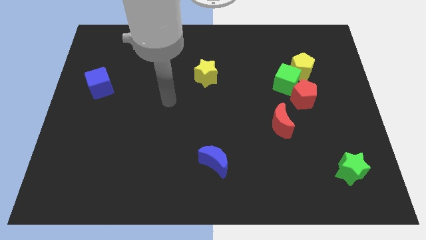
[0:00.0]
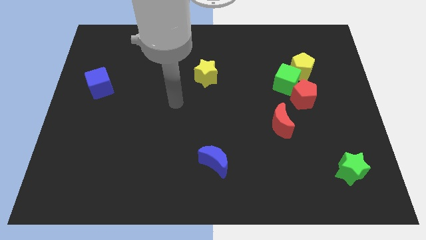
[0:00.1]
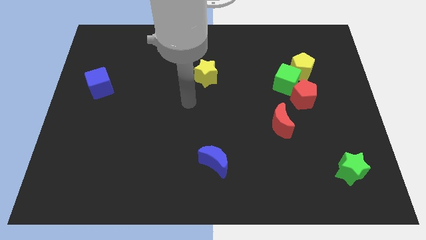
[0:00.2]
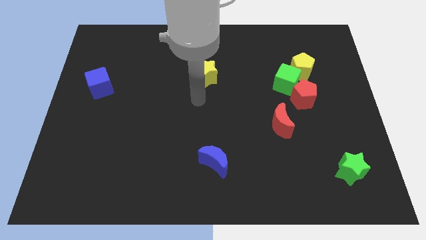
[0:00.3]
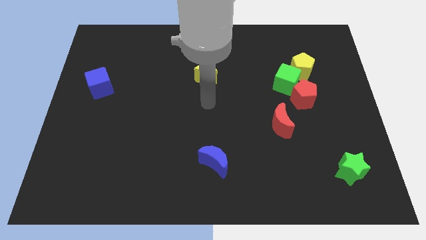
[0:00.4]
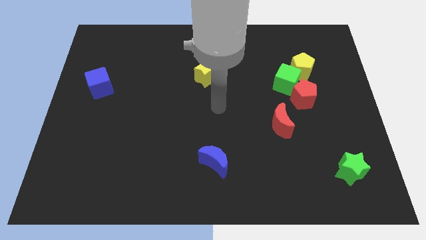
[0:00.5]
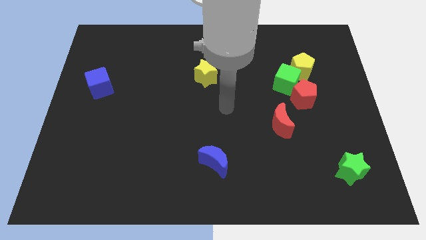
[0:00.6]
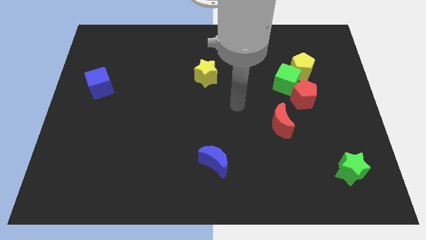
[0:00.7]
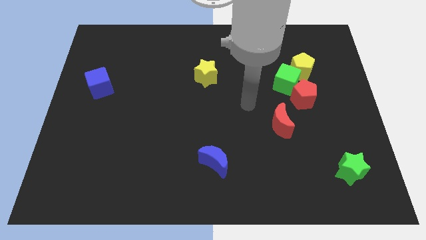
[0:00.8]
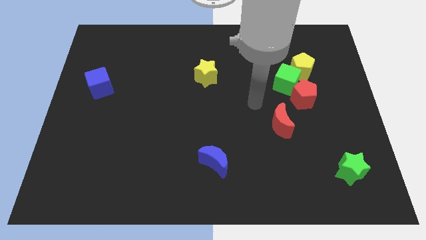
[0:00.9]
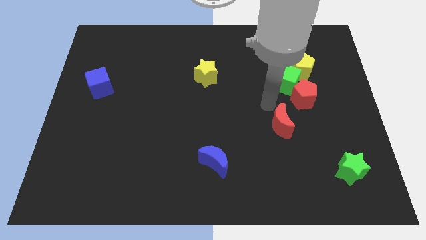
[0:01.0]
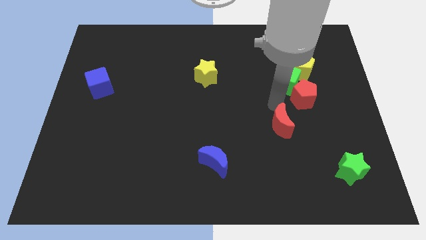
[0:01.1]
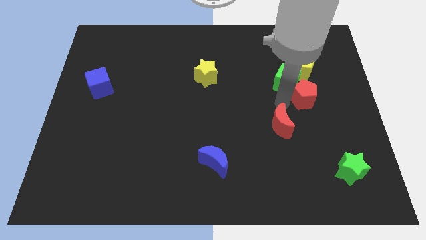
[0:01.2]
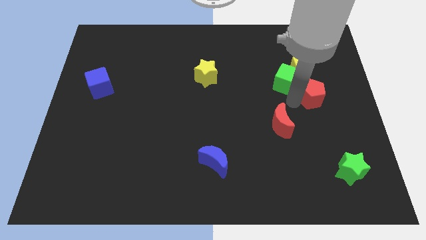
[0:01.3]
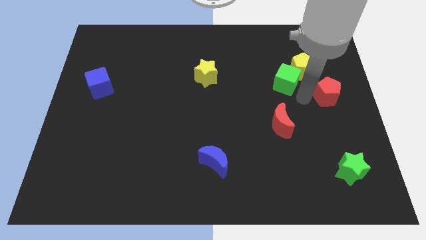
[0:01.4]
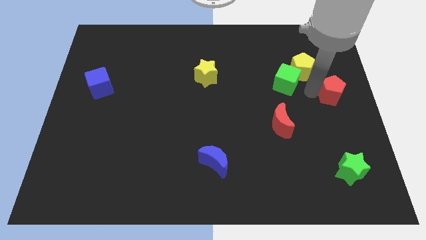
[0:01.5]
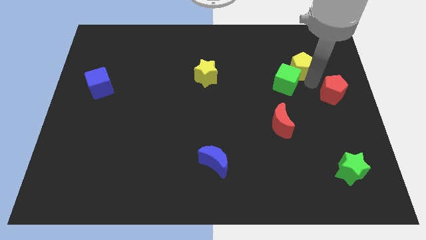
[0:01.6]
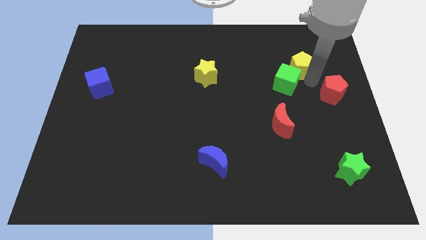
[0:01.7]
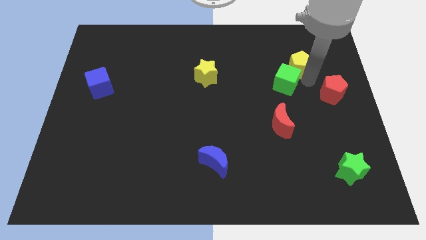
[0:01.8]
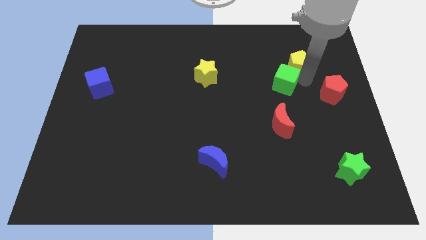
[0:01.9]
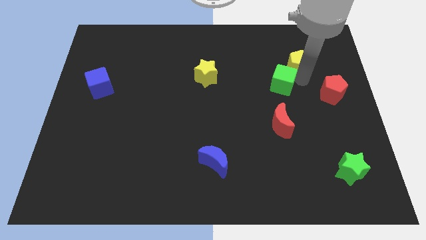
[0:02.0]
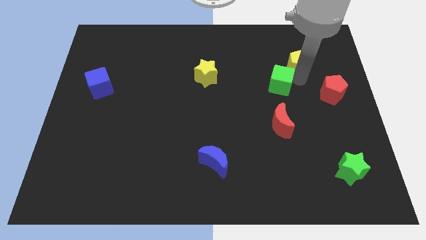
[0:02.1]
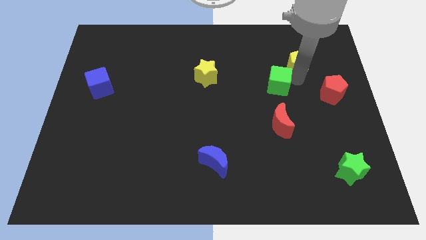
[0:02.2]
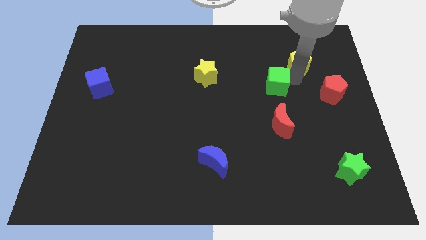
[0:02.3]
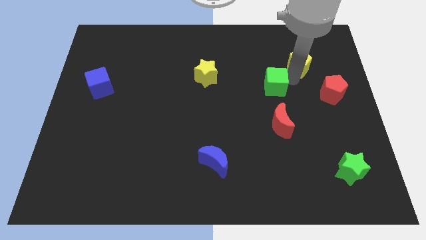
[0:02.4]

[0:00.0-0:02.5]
separate the green cube from the red pentagon and yellow pentagon

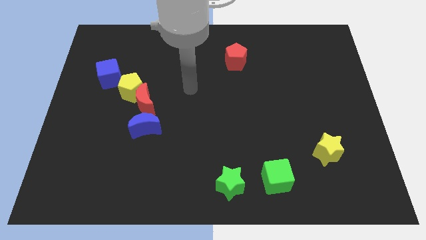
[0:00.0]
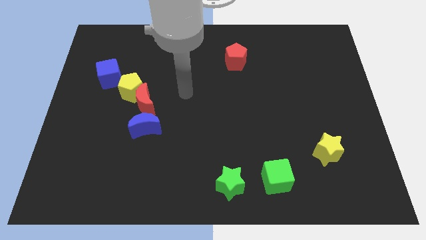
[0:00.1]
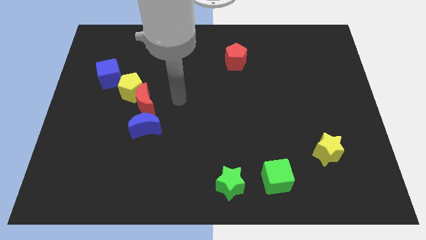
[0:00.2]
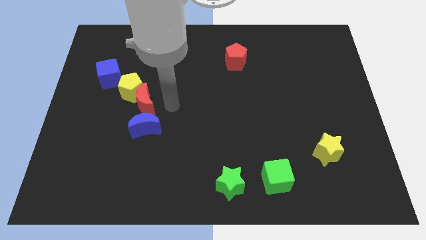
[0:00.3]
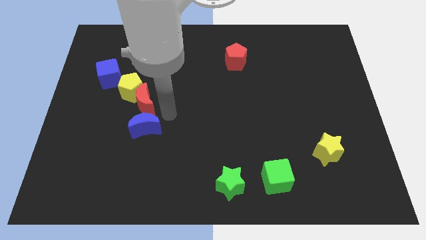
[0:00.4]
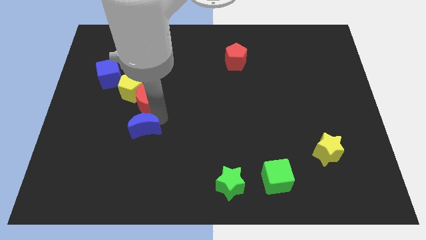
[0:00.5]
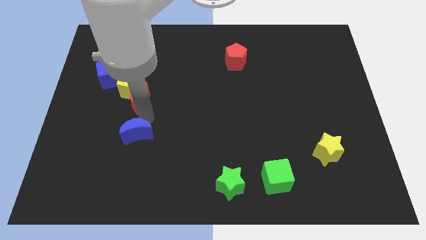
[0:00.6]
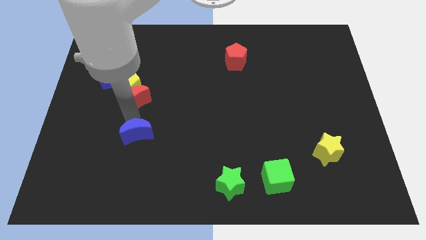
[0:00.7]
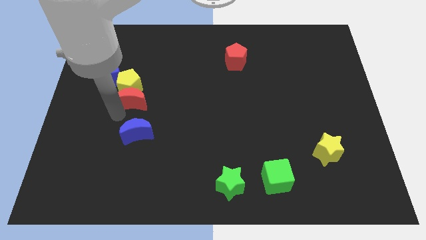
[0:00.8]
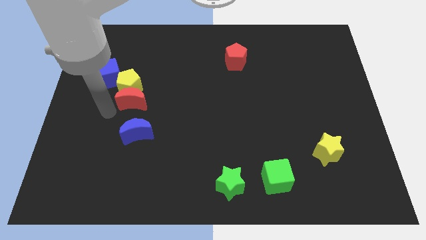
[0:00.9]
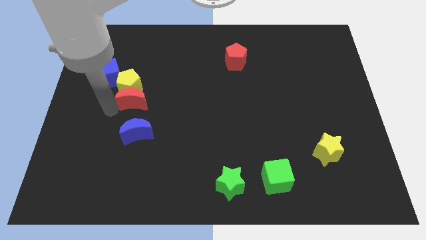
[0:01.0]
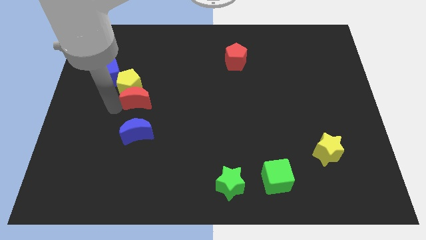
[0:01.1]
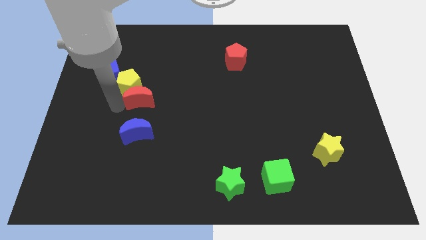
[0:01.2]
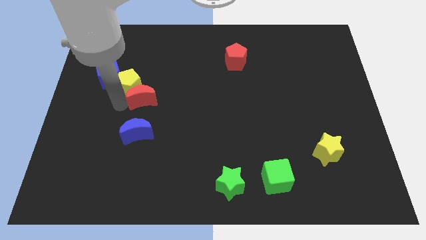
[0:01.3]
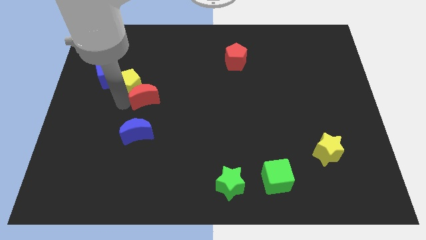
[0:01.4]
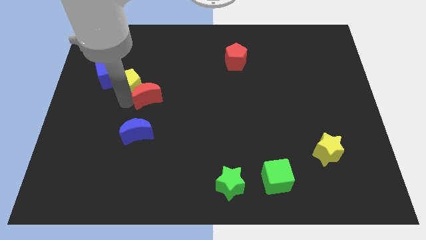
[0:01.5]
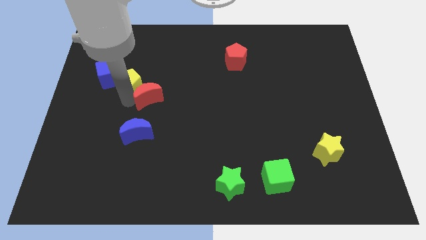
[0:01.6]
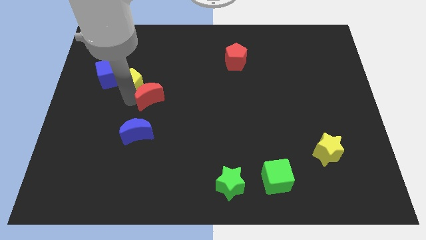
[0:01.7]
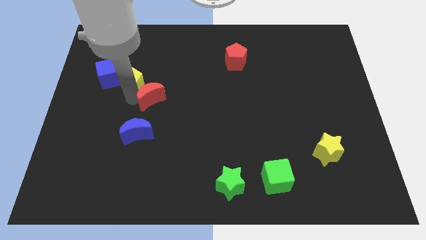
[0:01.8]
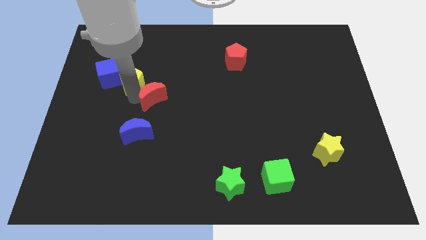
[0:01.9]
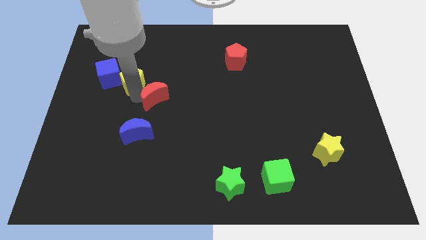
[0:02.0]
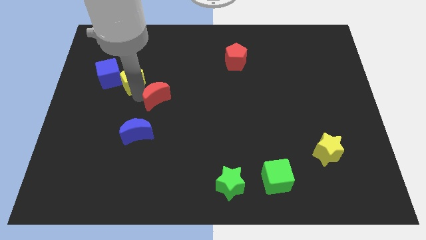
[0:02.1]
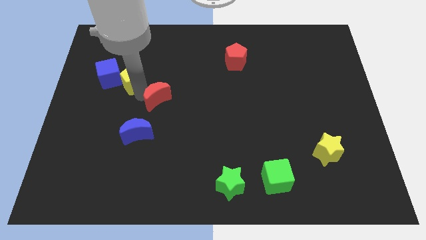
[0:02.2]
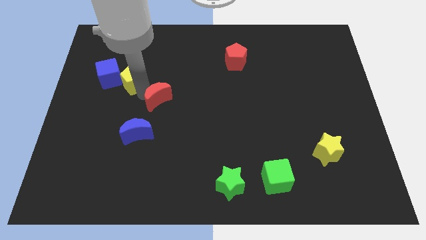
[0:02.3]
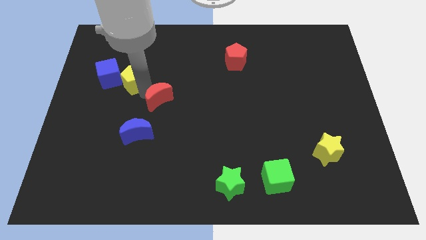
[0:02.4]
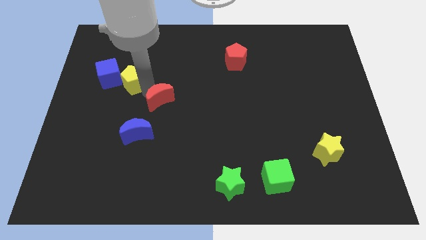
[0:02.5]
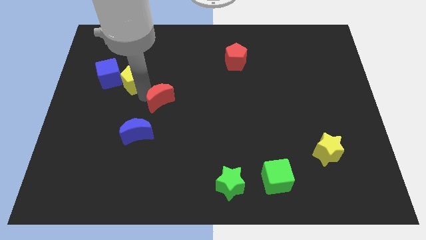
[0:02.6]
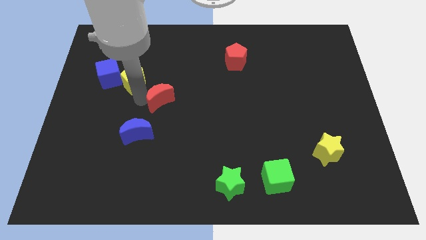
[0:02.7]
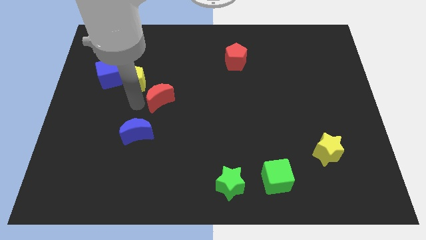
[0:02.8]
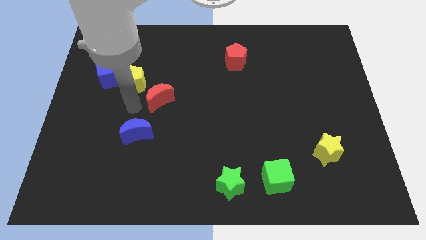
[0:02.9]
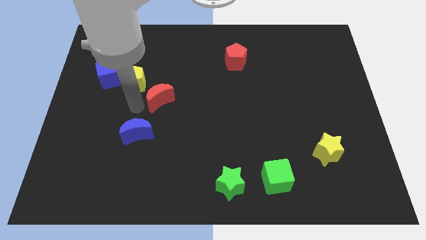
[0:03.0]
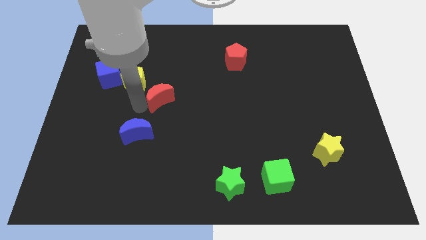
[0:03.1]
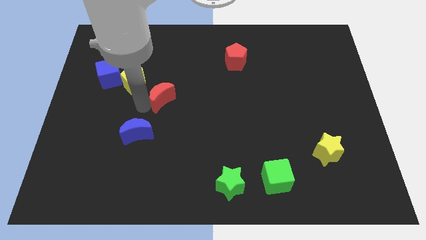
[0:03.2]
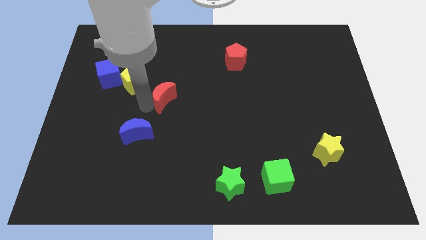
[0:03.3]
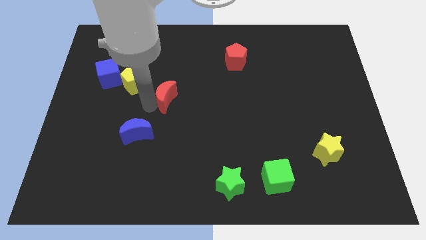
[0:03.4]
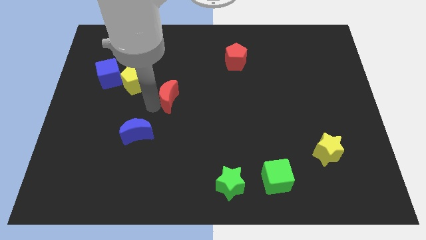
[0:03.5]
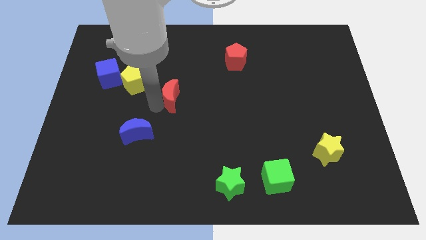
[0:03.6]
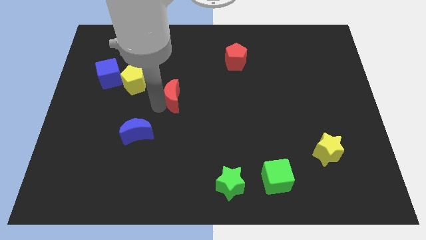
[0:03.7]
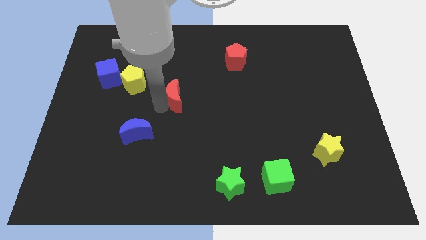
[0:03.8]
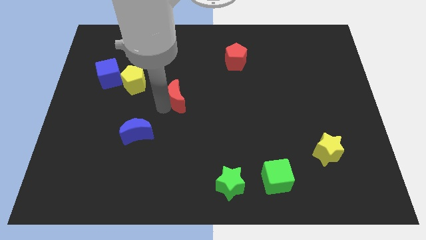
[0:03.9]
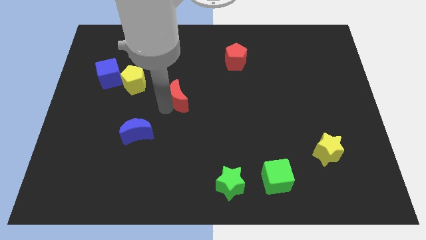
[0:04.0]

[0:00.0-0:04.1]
separate the red moon from the yellow pentagon and blue moon

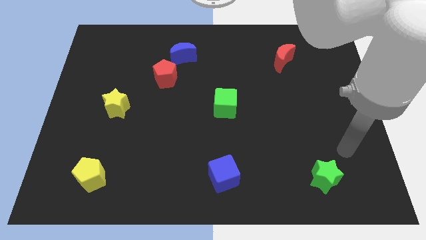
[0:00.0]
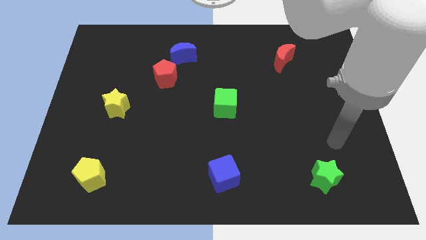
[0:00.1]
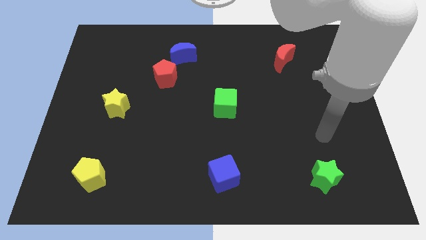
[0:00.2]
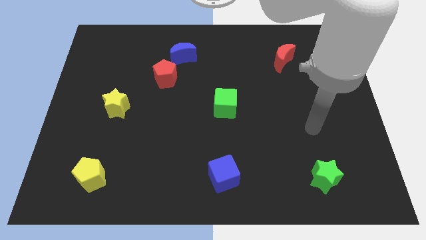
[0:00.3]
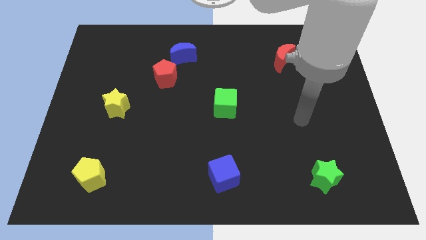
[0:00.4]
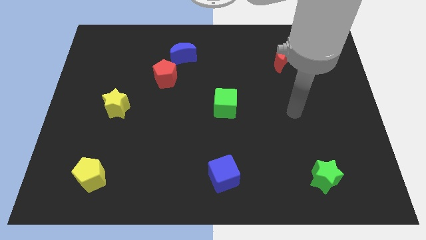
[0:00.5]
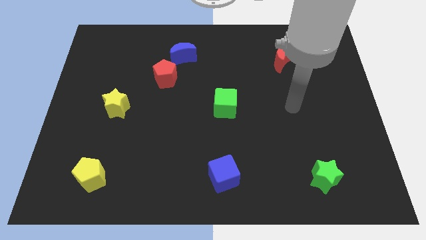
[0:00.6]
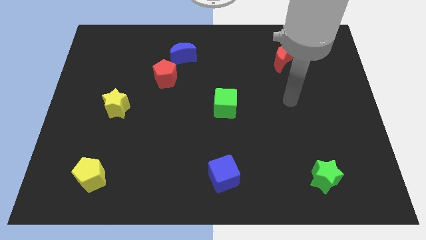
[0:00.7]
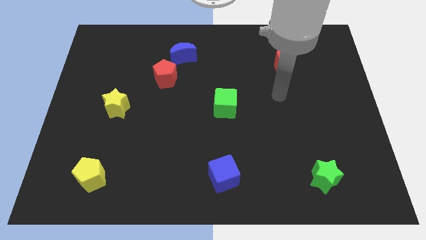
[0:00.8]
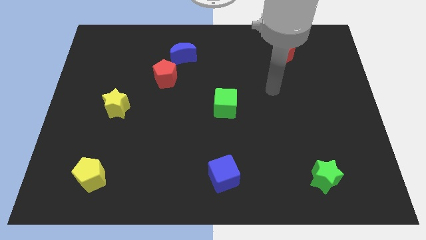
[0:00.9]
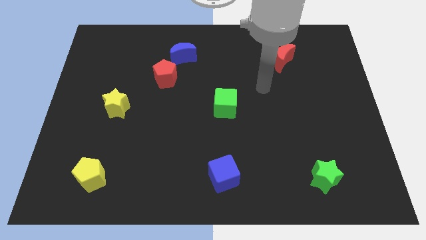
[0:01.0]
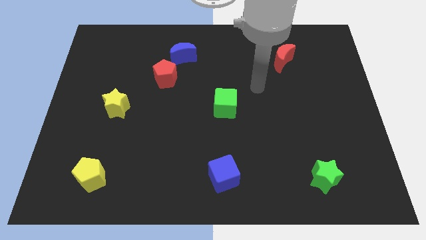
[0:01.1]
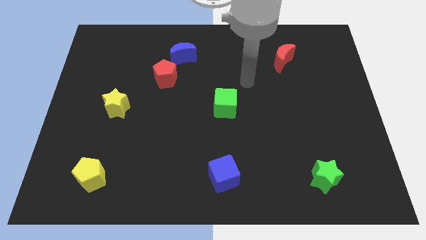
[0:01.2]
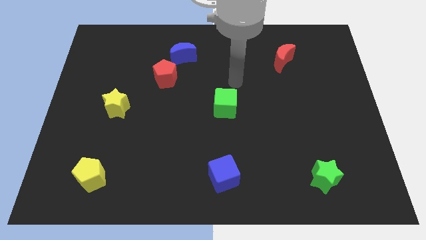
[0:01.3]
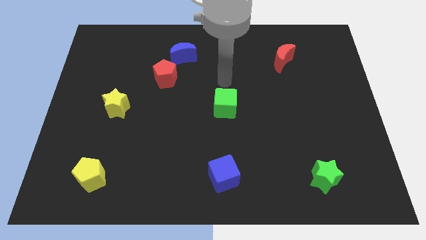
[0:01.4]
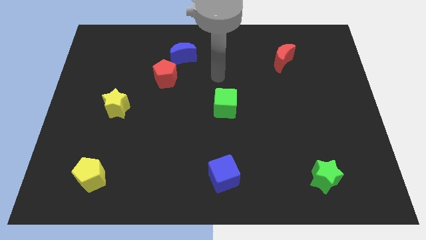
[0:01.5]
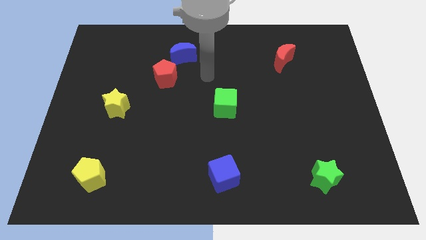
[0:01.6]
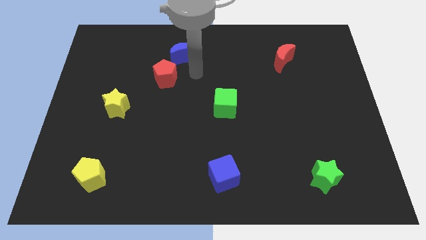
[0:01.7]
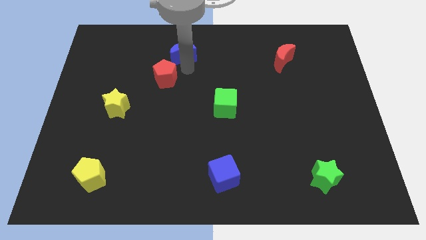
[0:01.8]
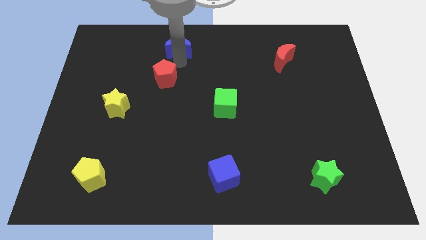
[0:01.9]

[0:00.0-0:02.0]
separate the red pentagon from the blue moon

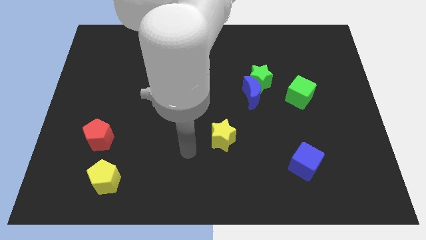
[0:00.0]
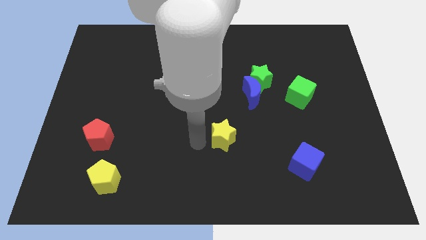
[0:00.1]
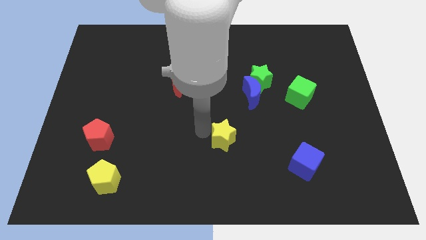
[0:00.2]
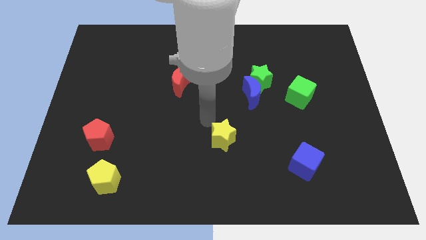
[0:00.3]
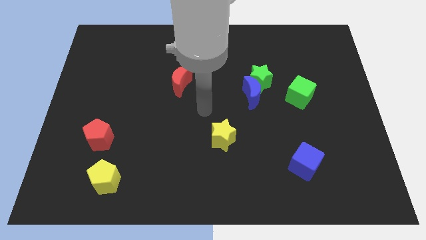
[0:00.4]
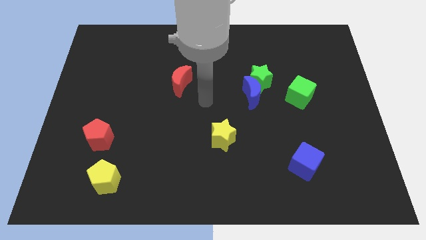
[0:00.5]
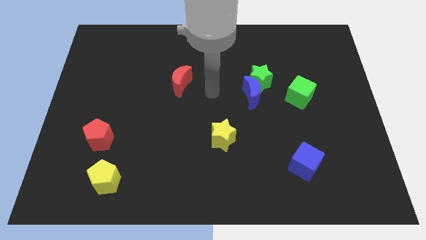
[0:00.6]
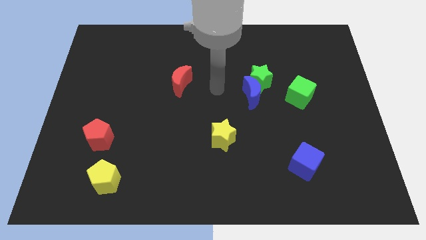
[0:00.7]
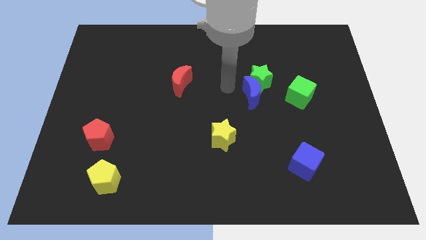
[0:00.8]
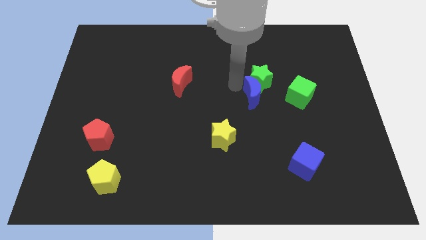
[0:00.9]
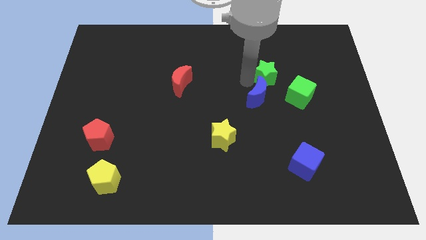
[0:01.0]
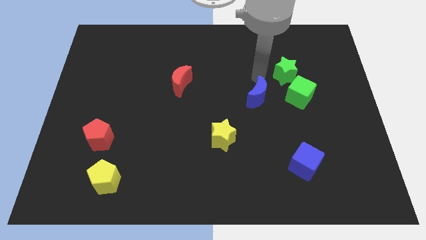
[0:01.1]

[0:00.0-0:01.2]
pull the blue moon apart from the green star
